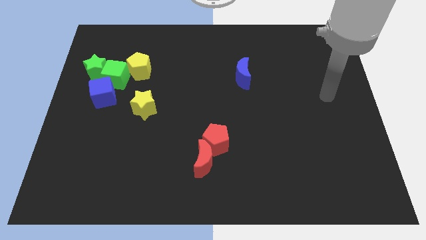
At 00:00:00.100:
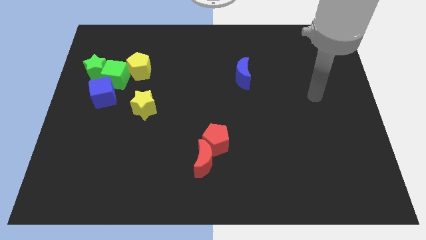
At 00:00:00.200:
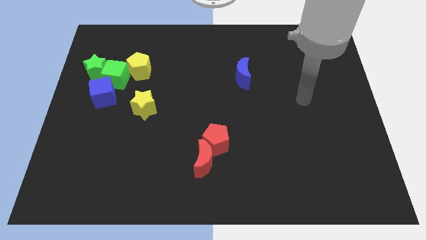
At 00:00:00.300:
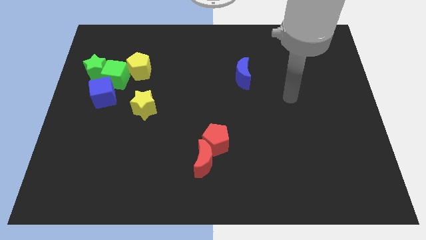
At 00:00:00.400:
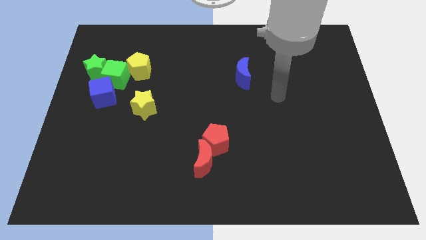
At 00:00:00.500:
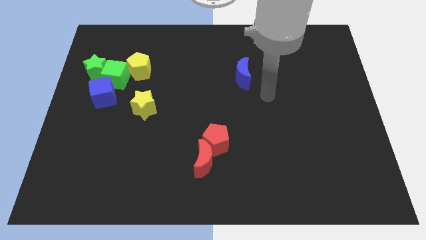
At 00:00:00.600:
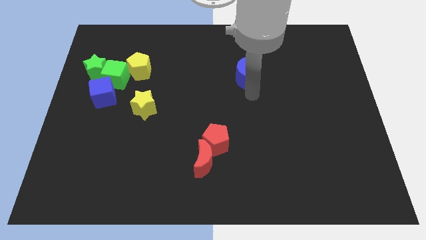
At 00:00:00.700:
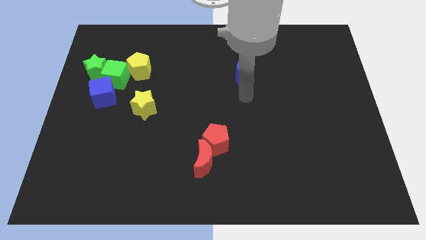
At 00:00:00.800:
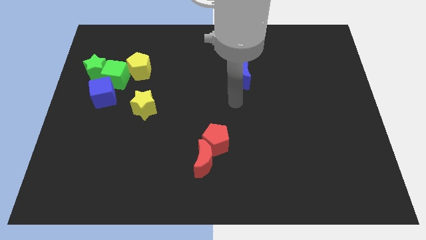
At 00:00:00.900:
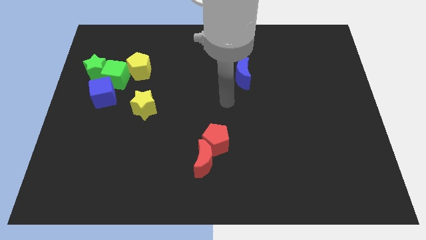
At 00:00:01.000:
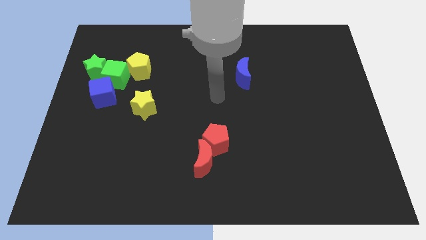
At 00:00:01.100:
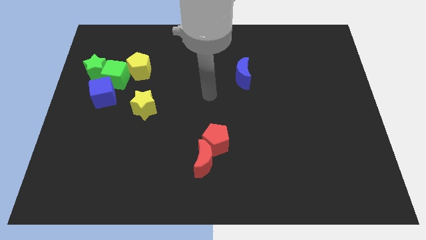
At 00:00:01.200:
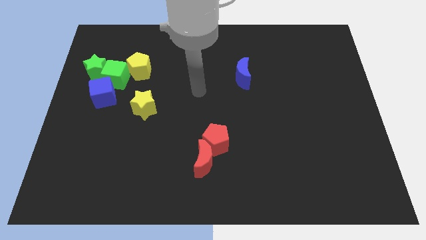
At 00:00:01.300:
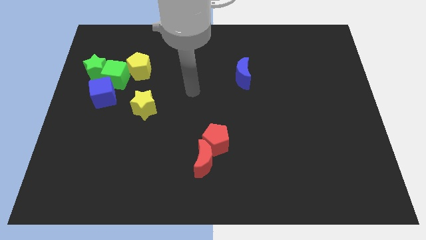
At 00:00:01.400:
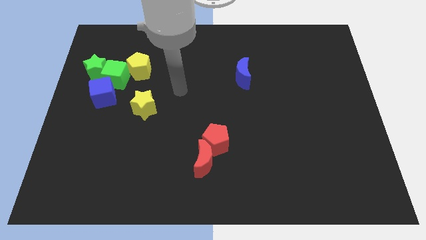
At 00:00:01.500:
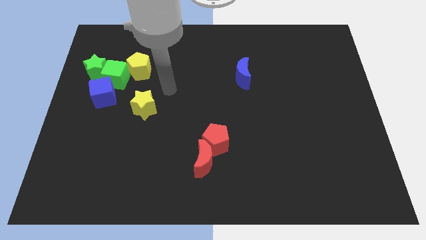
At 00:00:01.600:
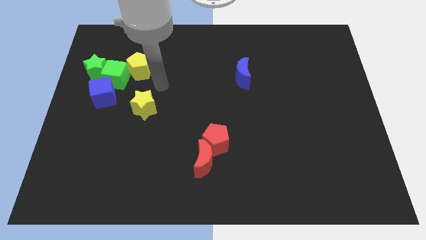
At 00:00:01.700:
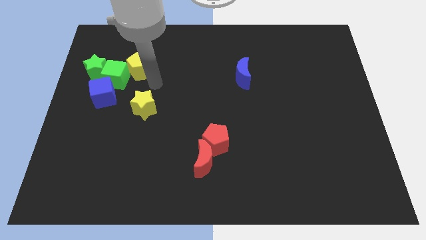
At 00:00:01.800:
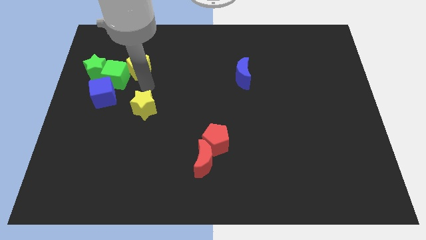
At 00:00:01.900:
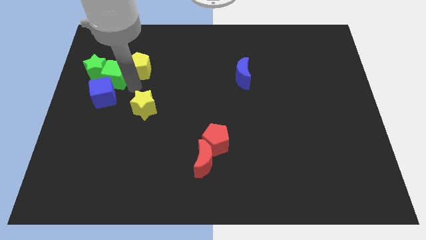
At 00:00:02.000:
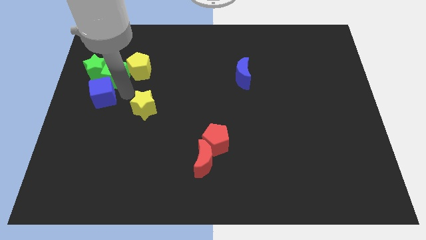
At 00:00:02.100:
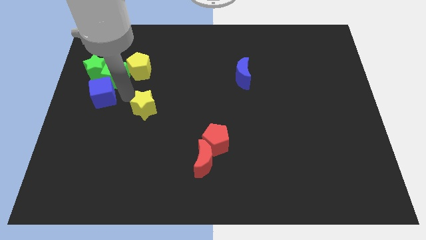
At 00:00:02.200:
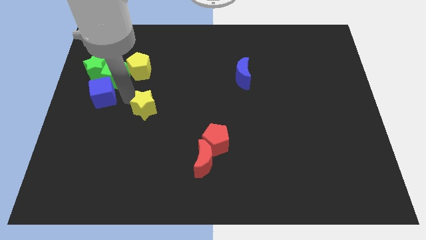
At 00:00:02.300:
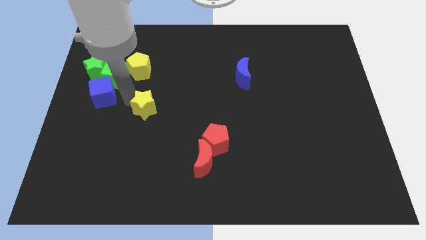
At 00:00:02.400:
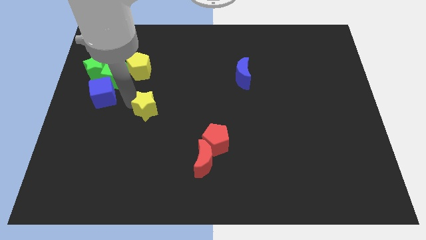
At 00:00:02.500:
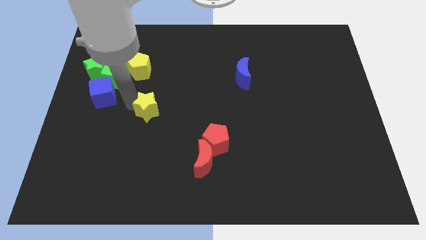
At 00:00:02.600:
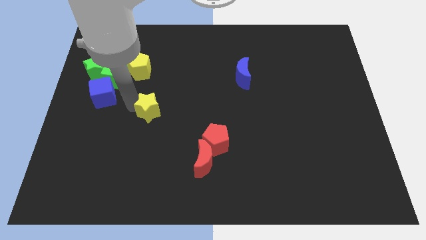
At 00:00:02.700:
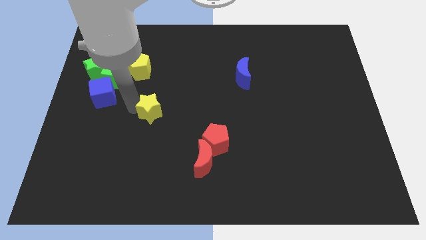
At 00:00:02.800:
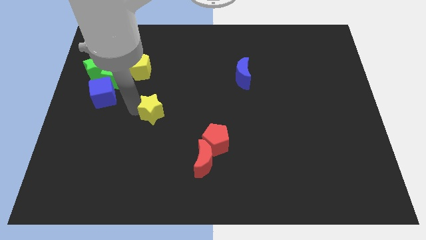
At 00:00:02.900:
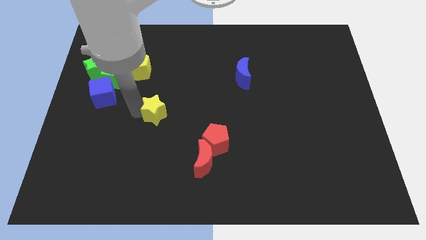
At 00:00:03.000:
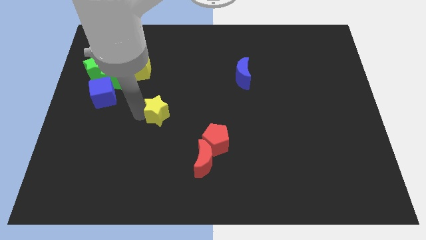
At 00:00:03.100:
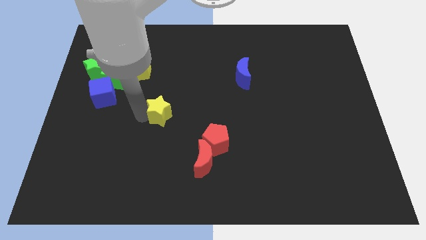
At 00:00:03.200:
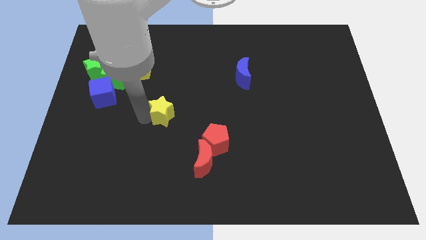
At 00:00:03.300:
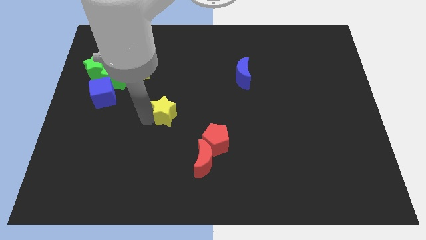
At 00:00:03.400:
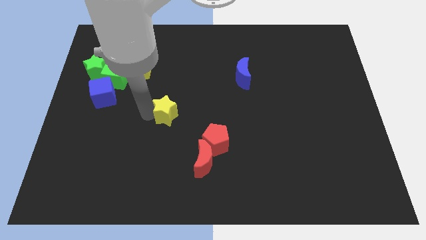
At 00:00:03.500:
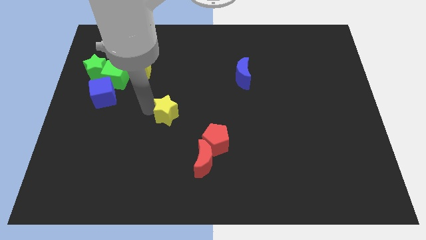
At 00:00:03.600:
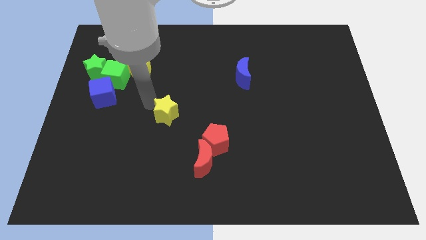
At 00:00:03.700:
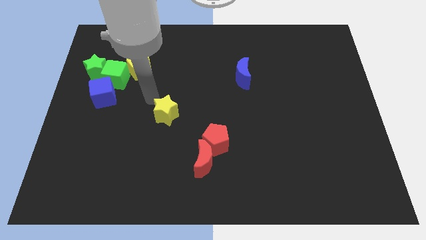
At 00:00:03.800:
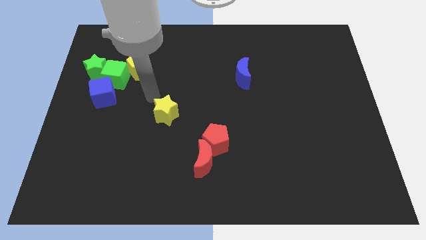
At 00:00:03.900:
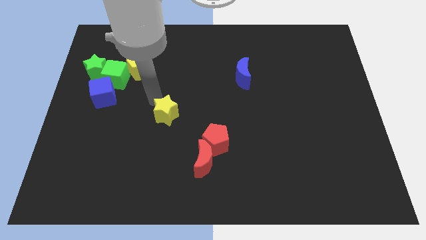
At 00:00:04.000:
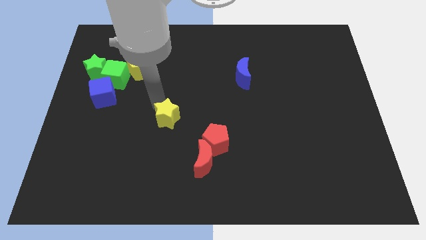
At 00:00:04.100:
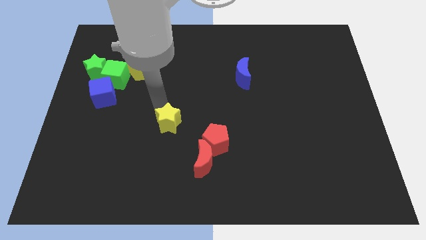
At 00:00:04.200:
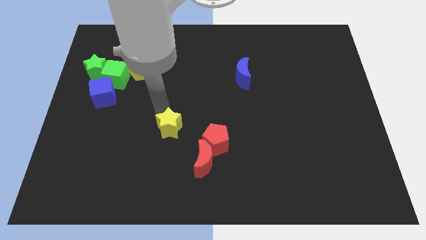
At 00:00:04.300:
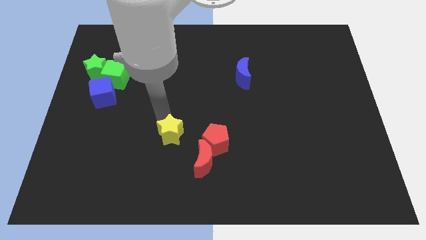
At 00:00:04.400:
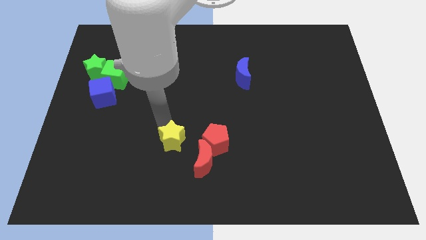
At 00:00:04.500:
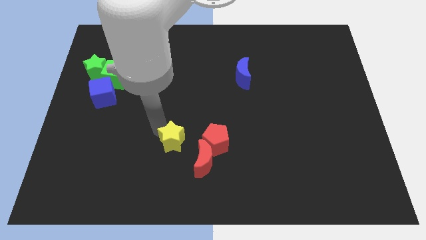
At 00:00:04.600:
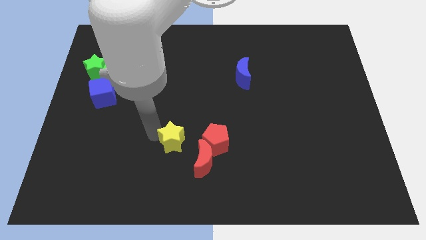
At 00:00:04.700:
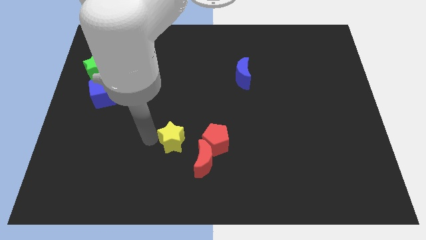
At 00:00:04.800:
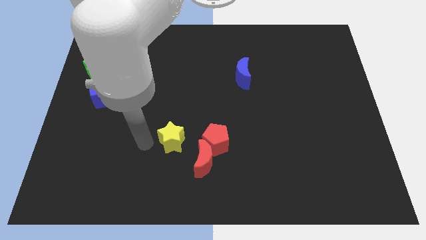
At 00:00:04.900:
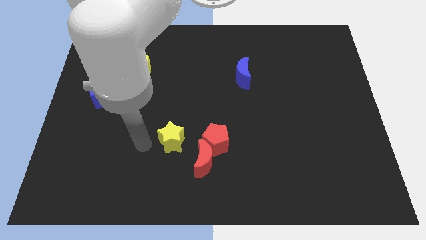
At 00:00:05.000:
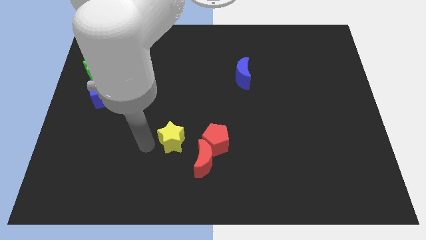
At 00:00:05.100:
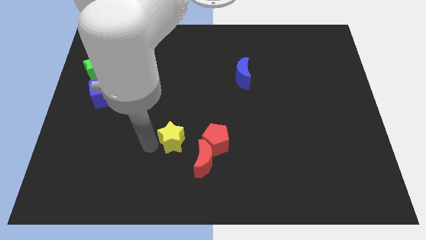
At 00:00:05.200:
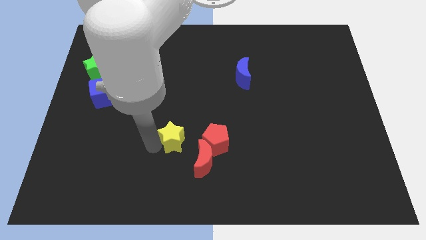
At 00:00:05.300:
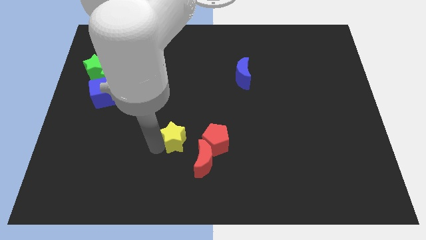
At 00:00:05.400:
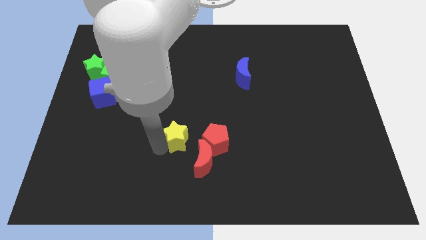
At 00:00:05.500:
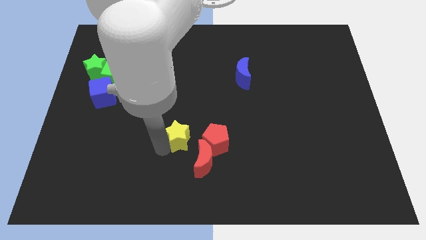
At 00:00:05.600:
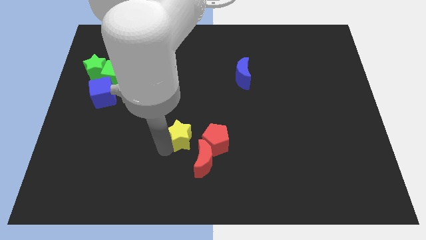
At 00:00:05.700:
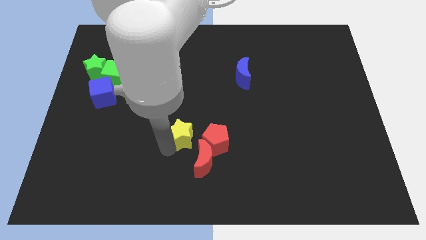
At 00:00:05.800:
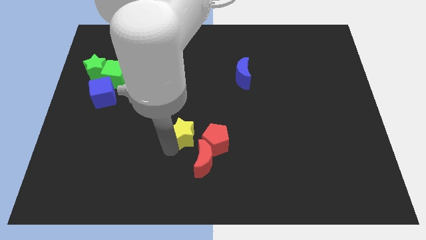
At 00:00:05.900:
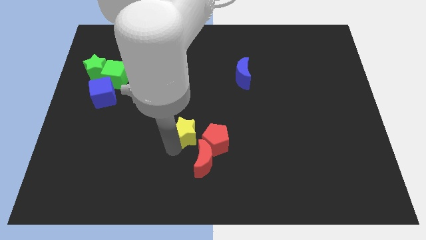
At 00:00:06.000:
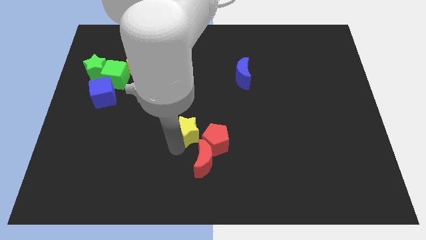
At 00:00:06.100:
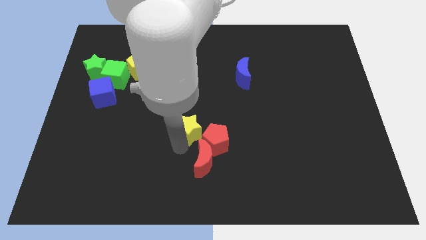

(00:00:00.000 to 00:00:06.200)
push the yellow star towards the red pentagon
